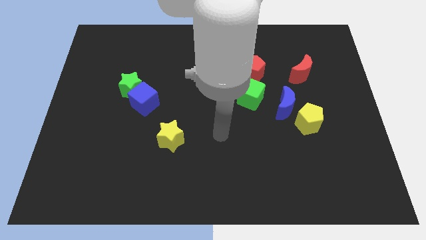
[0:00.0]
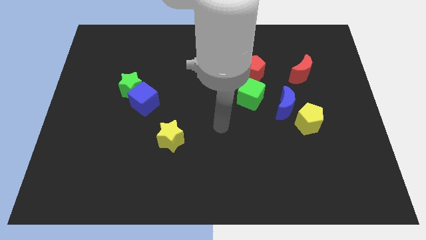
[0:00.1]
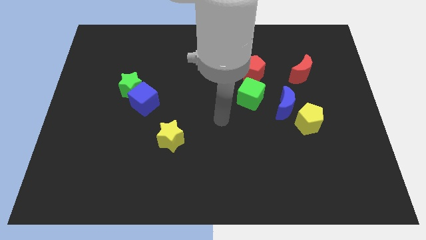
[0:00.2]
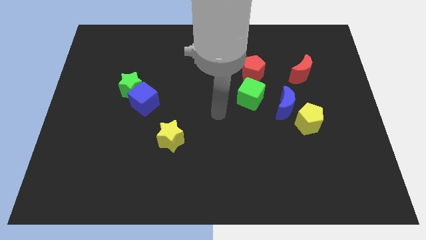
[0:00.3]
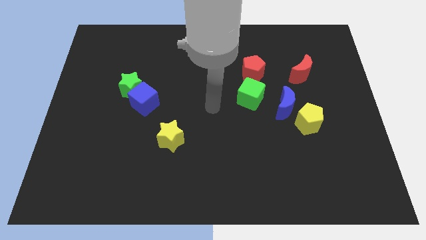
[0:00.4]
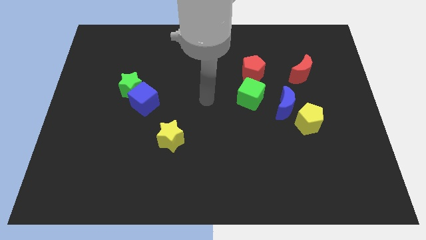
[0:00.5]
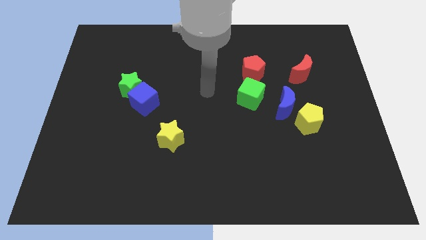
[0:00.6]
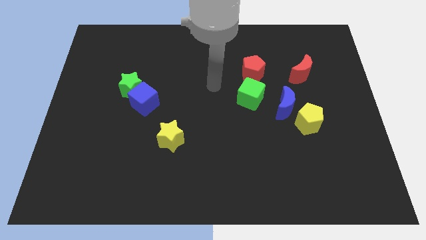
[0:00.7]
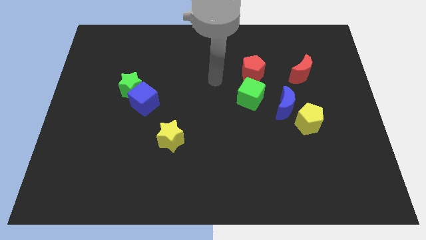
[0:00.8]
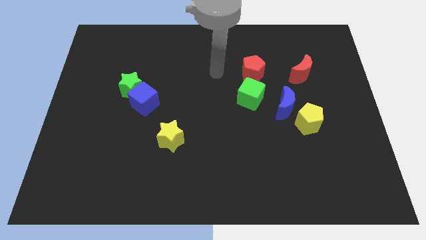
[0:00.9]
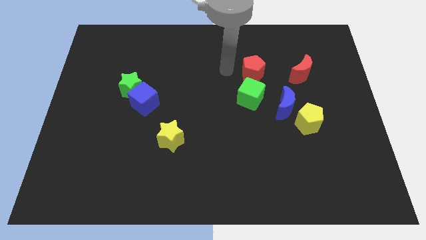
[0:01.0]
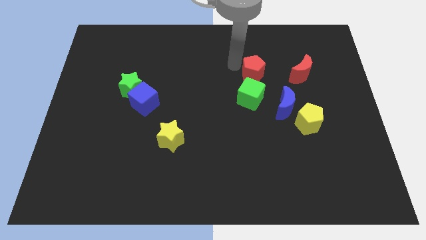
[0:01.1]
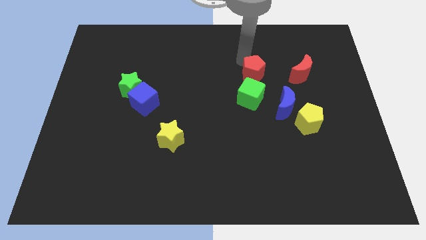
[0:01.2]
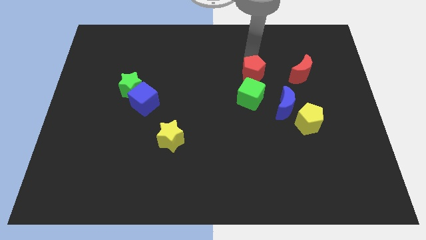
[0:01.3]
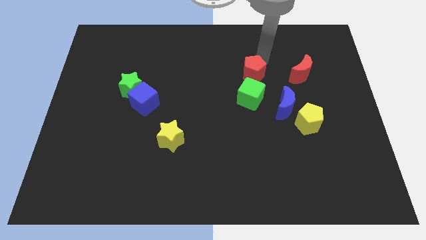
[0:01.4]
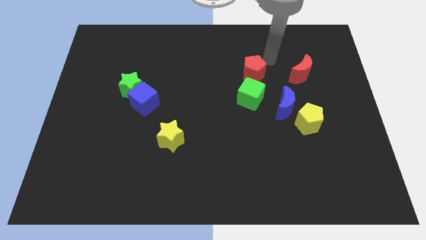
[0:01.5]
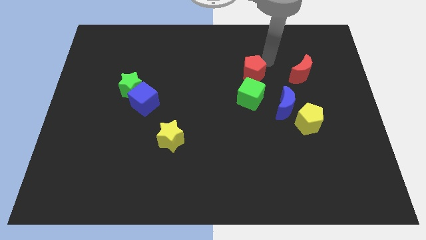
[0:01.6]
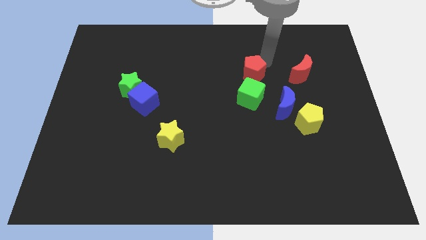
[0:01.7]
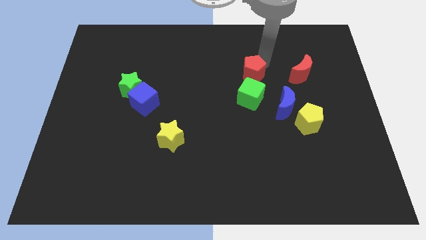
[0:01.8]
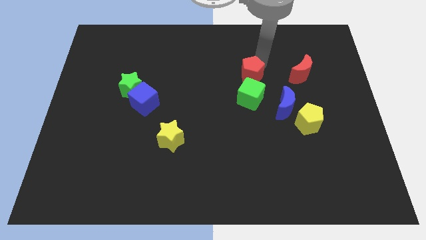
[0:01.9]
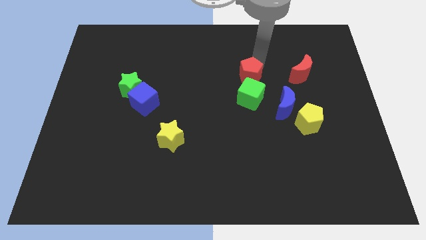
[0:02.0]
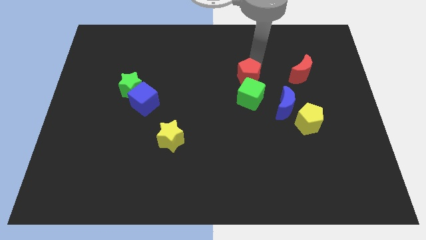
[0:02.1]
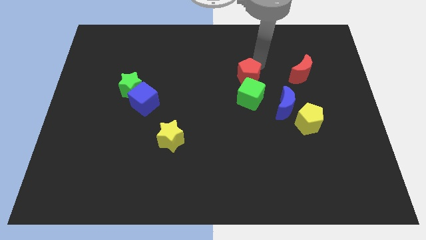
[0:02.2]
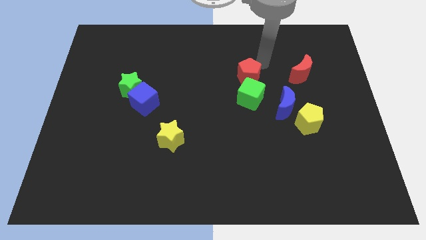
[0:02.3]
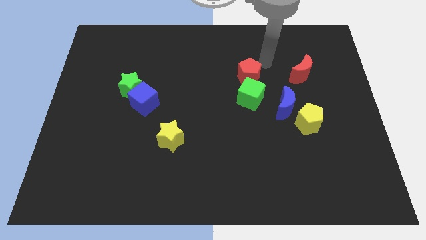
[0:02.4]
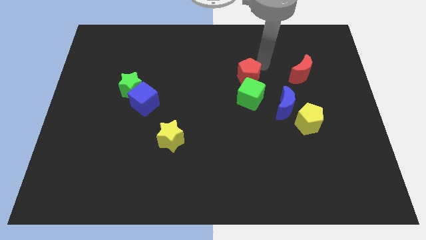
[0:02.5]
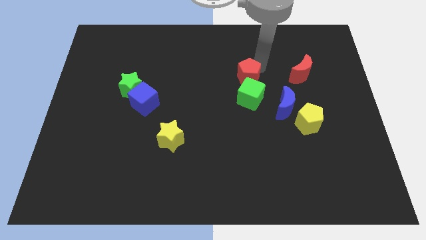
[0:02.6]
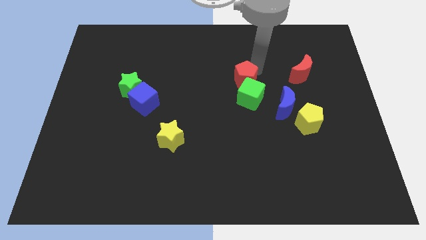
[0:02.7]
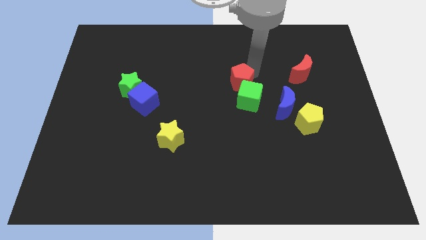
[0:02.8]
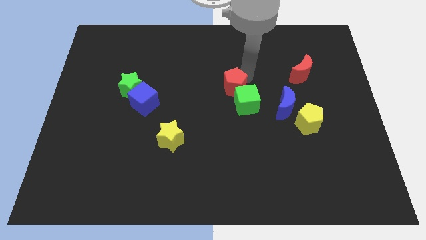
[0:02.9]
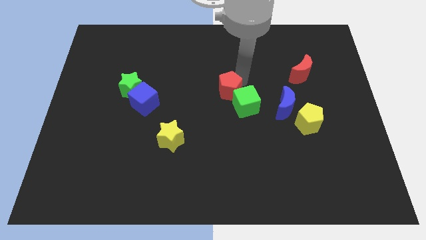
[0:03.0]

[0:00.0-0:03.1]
slightly push the red pentagon diagonally downwards and to the left

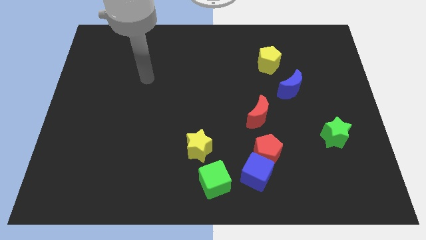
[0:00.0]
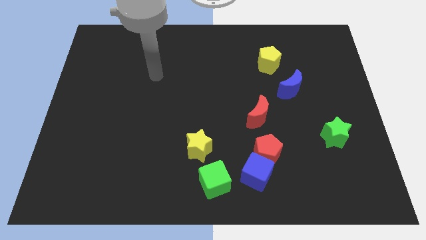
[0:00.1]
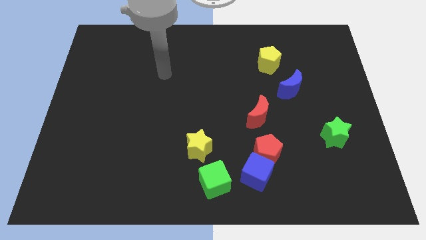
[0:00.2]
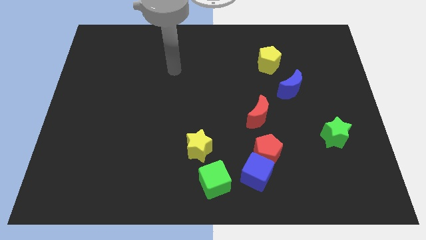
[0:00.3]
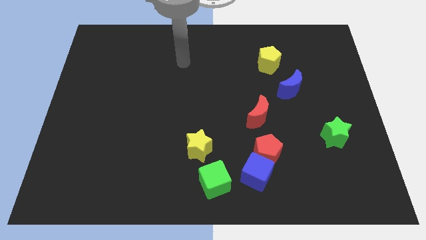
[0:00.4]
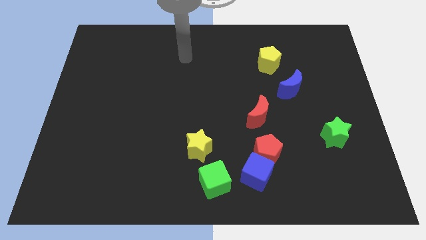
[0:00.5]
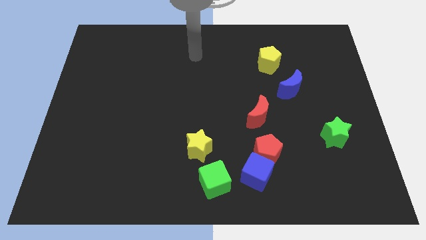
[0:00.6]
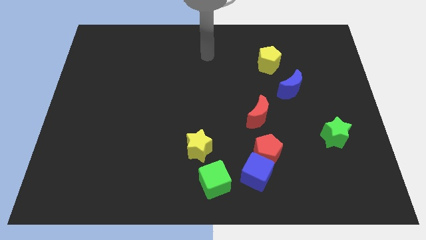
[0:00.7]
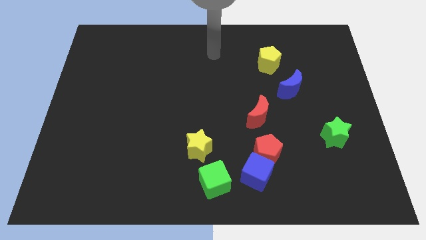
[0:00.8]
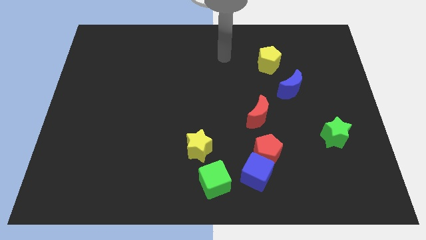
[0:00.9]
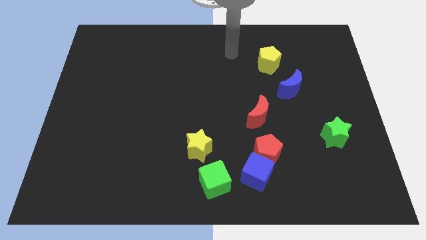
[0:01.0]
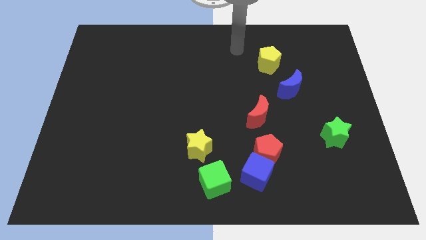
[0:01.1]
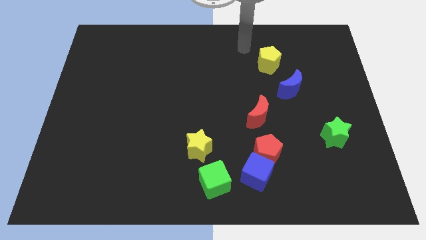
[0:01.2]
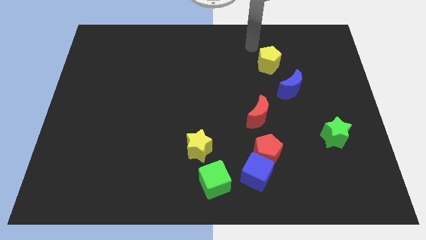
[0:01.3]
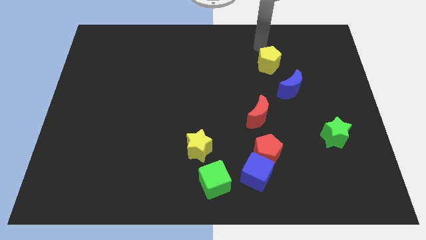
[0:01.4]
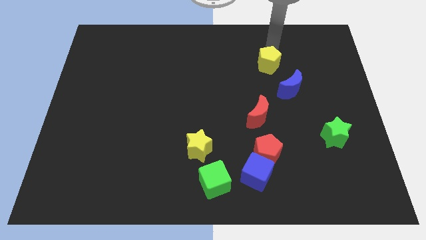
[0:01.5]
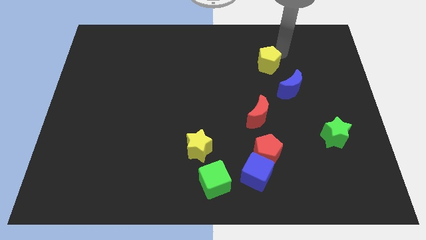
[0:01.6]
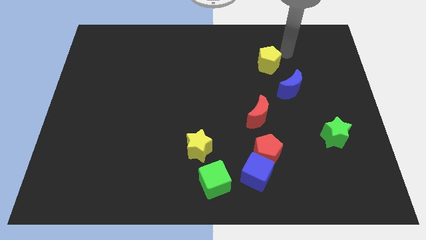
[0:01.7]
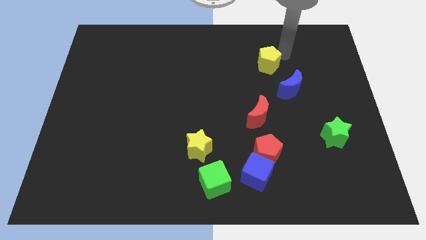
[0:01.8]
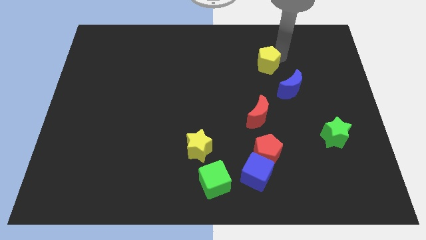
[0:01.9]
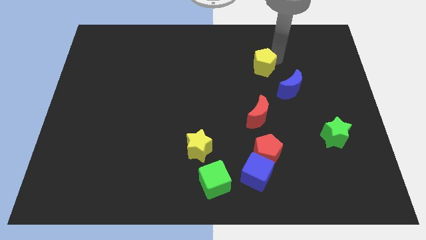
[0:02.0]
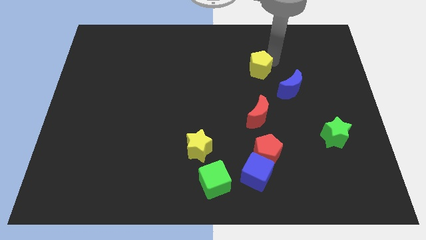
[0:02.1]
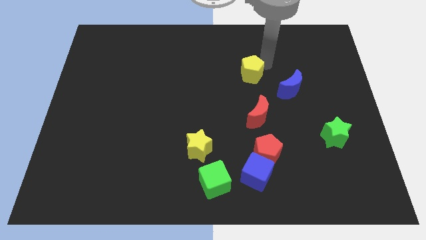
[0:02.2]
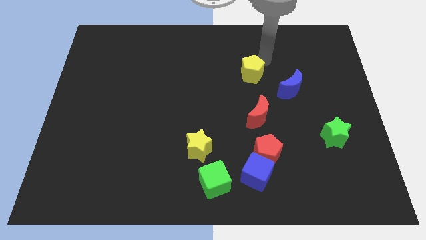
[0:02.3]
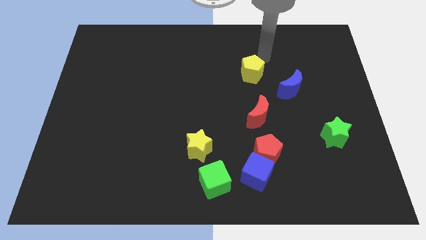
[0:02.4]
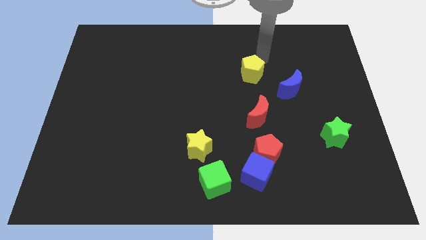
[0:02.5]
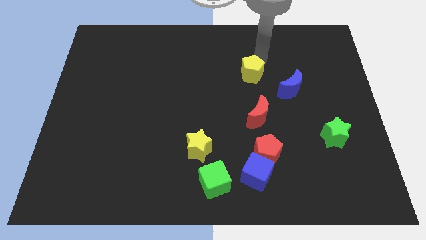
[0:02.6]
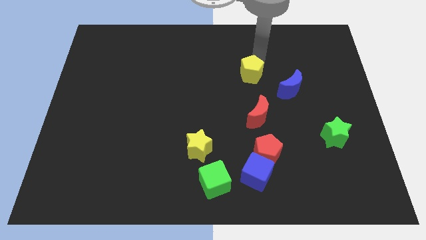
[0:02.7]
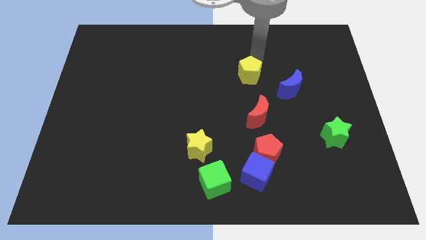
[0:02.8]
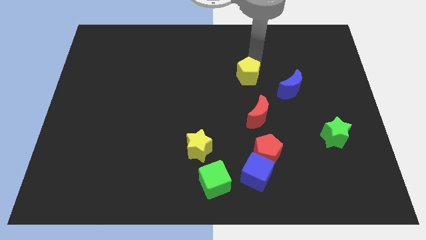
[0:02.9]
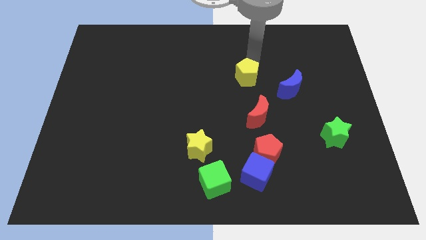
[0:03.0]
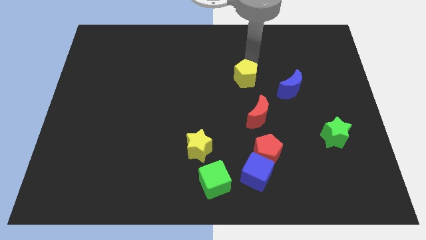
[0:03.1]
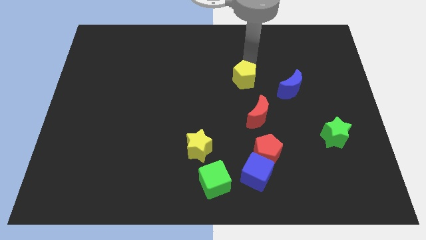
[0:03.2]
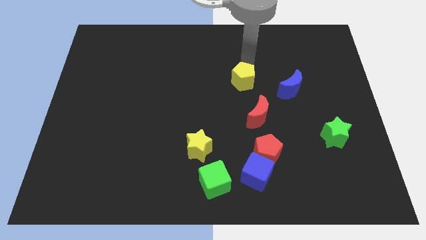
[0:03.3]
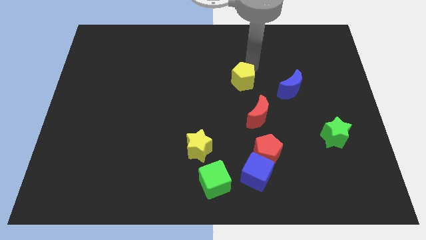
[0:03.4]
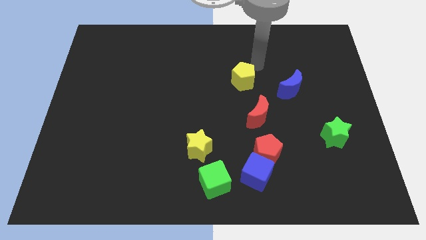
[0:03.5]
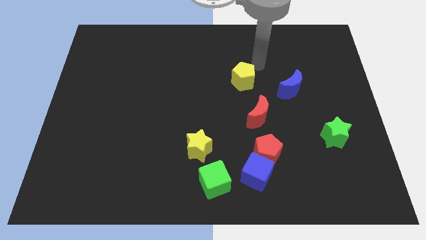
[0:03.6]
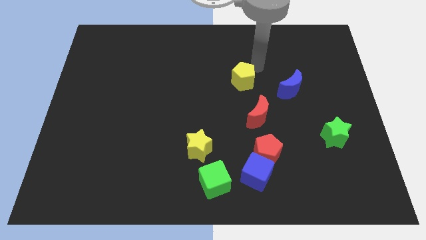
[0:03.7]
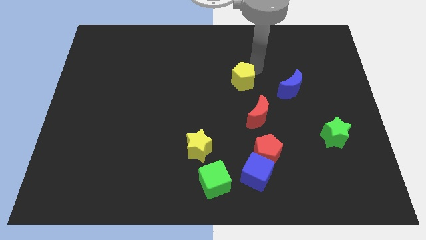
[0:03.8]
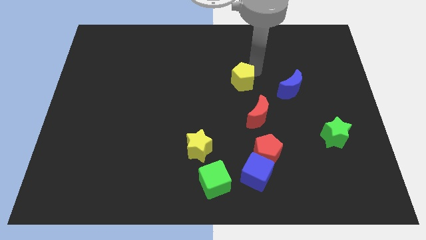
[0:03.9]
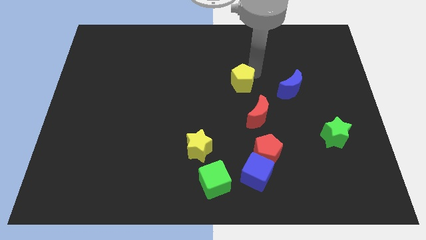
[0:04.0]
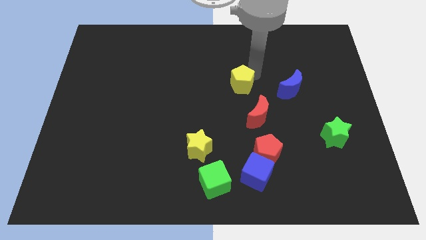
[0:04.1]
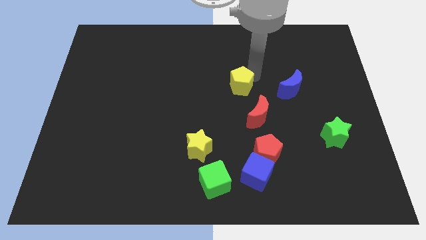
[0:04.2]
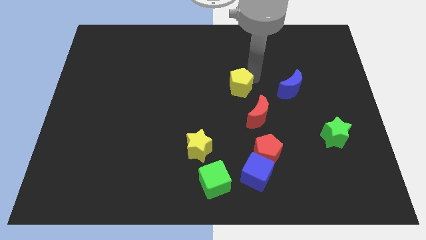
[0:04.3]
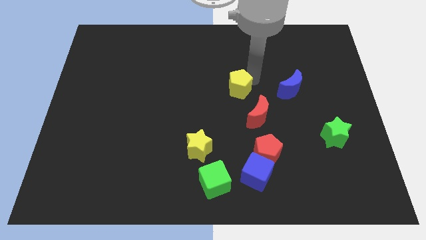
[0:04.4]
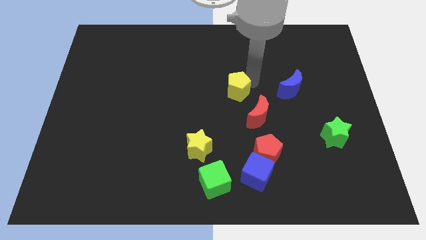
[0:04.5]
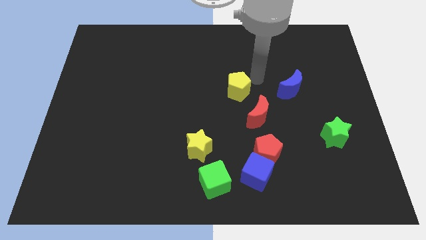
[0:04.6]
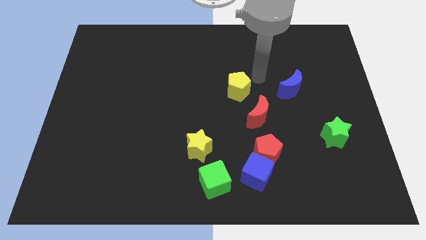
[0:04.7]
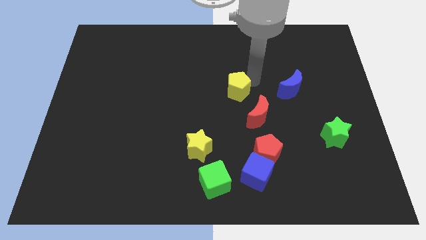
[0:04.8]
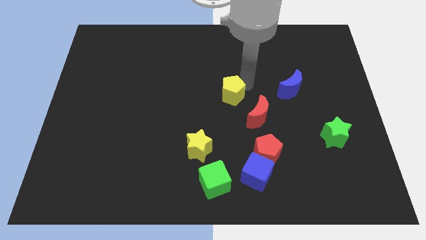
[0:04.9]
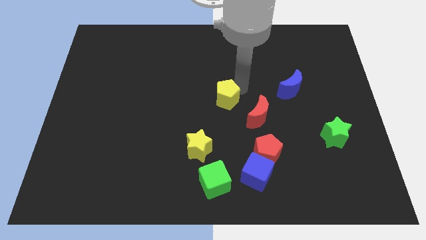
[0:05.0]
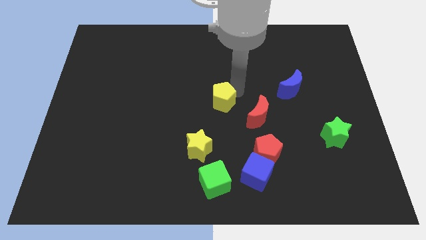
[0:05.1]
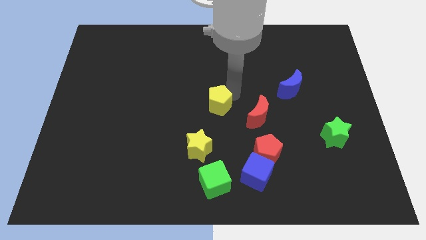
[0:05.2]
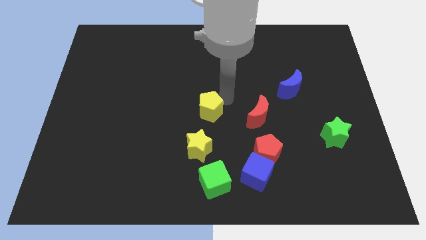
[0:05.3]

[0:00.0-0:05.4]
slide the yellow pentagon downwards and to the left diagonally
